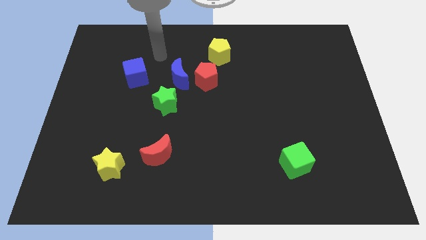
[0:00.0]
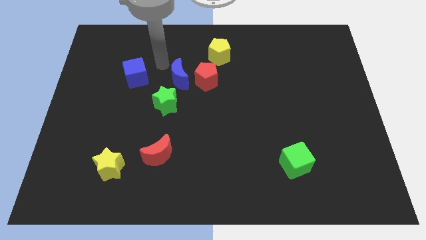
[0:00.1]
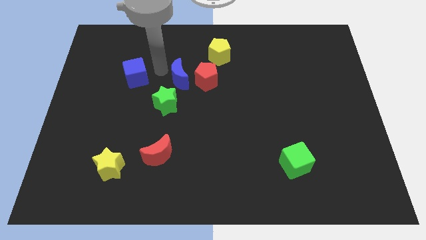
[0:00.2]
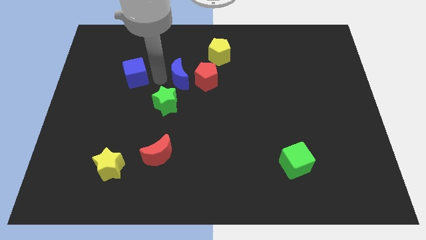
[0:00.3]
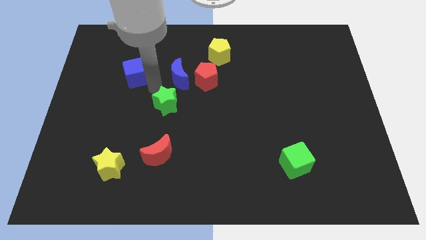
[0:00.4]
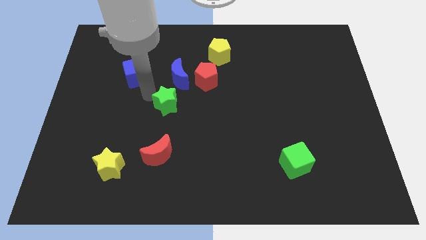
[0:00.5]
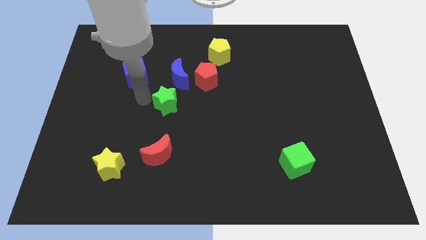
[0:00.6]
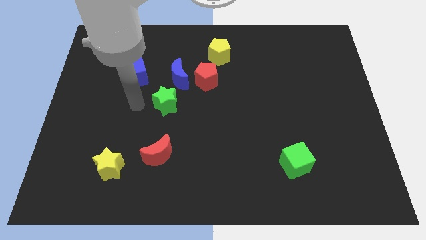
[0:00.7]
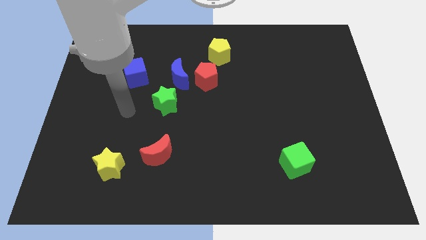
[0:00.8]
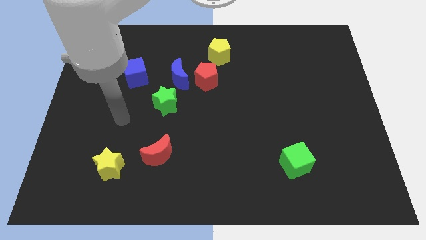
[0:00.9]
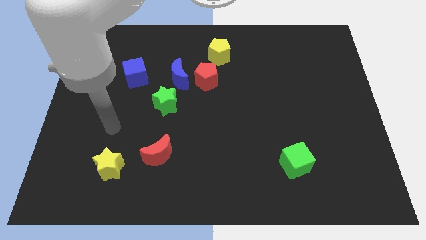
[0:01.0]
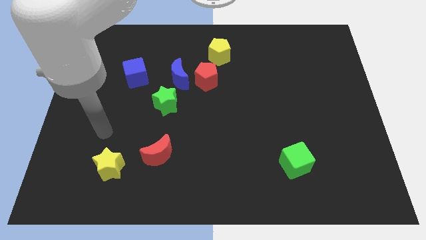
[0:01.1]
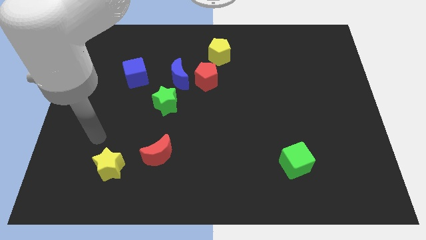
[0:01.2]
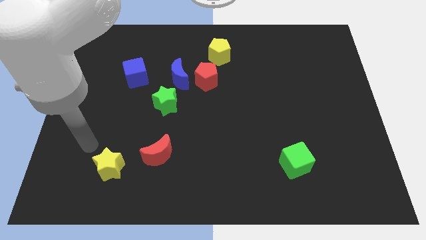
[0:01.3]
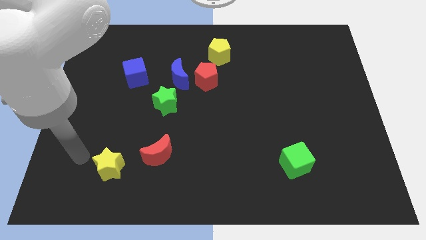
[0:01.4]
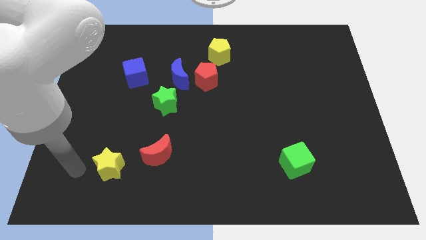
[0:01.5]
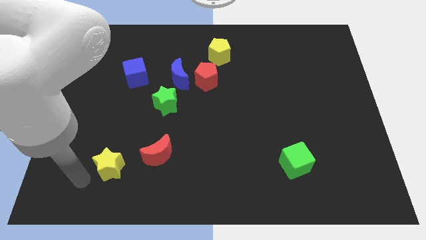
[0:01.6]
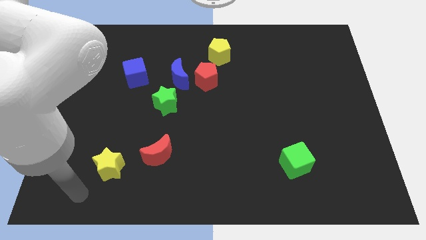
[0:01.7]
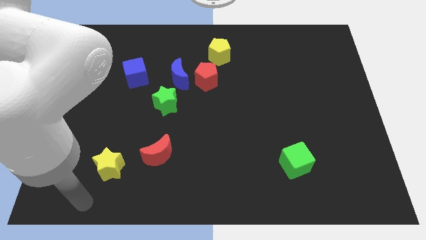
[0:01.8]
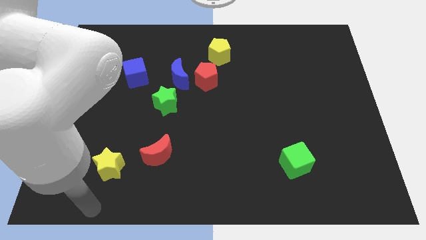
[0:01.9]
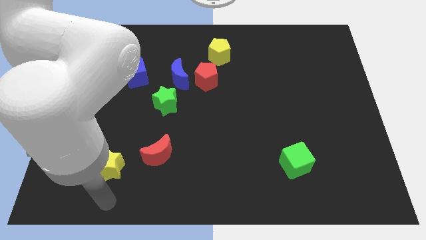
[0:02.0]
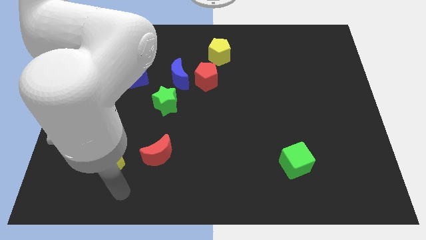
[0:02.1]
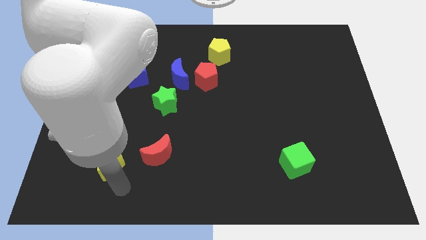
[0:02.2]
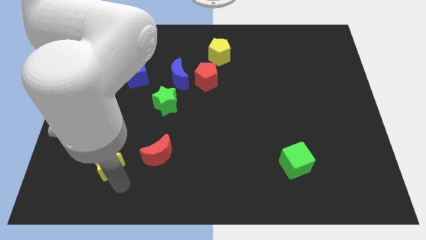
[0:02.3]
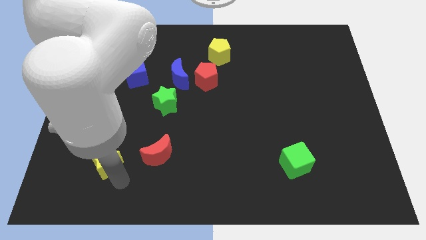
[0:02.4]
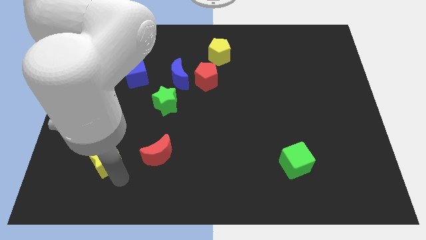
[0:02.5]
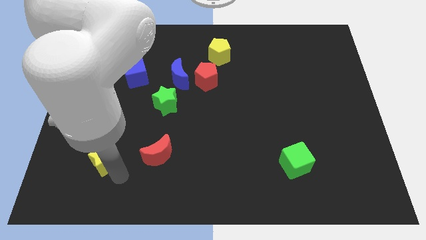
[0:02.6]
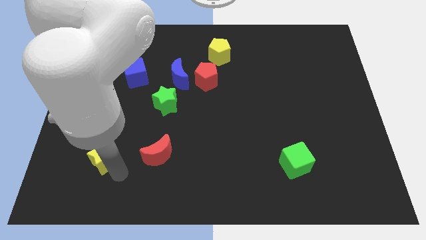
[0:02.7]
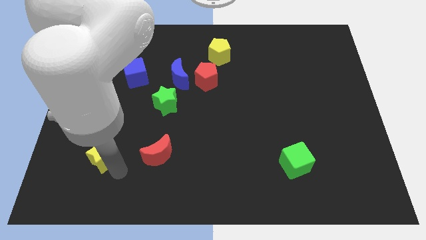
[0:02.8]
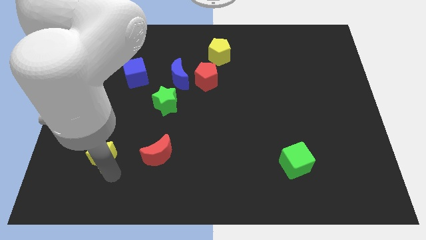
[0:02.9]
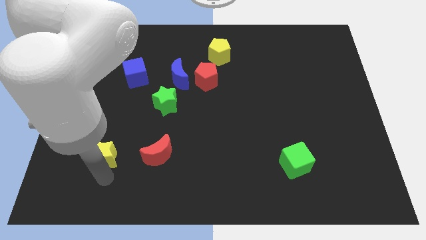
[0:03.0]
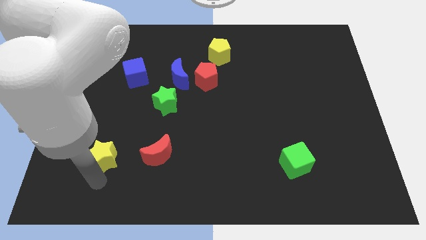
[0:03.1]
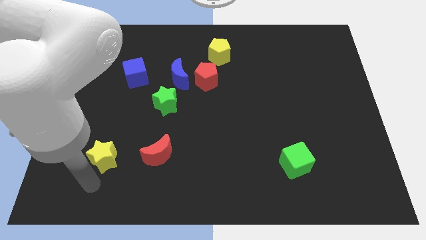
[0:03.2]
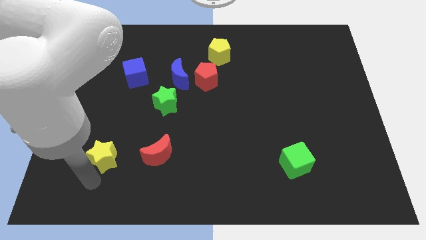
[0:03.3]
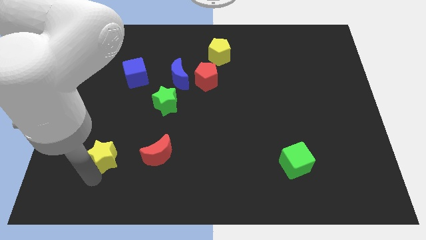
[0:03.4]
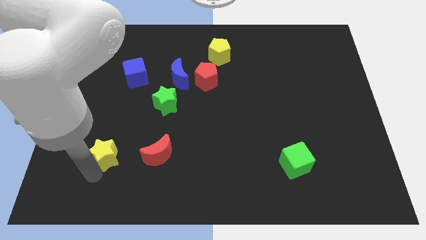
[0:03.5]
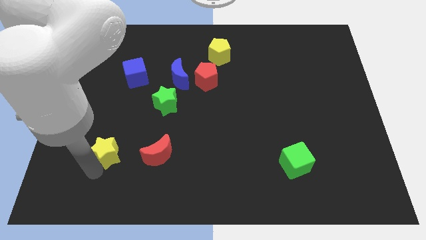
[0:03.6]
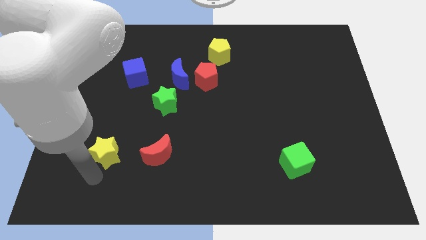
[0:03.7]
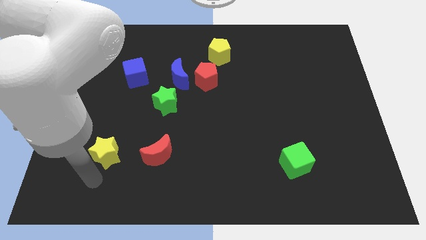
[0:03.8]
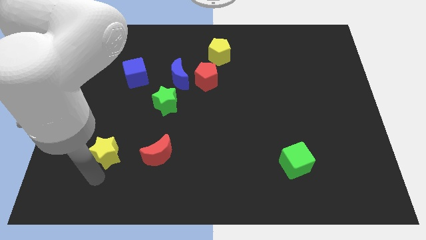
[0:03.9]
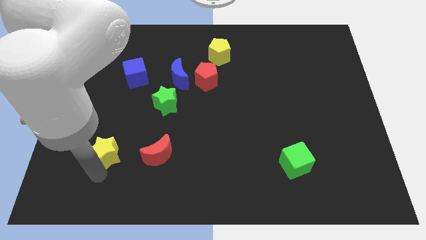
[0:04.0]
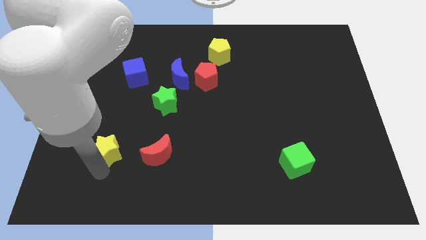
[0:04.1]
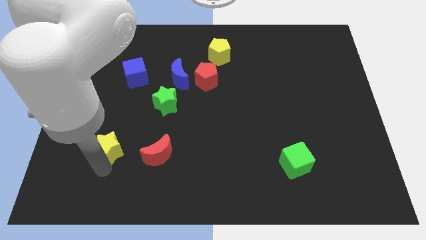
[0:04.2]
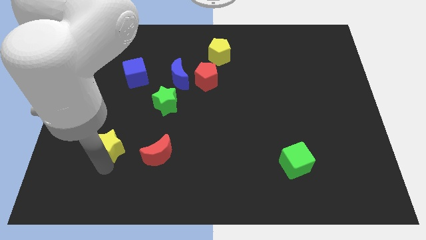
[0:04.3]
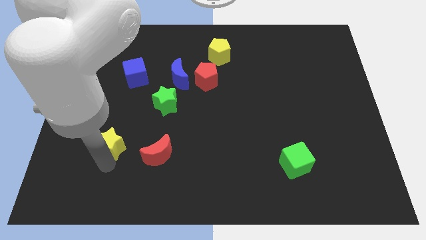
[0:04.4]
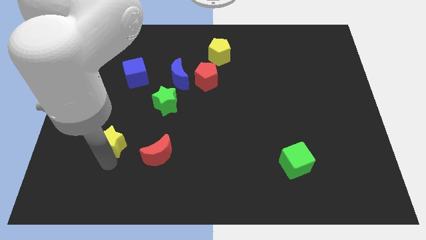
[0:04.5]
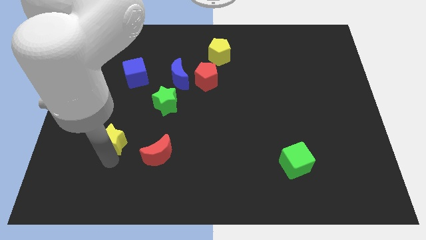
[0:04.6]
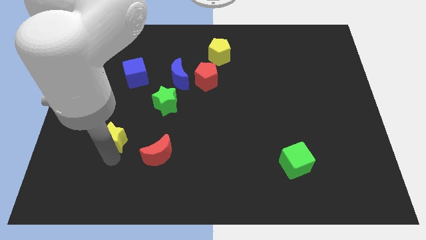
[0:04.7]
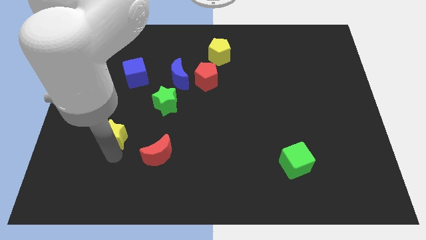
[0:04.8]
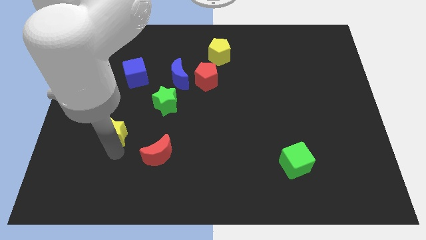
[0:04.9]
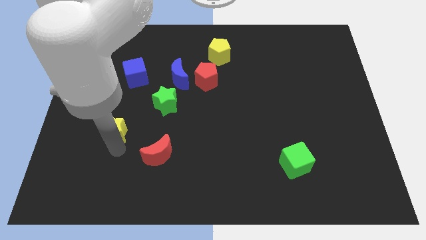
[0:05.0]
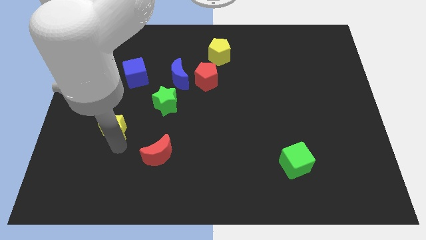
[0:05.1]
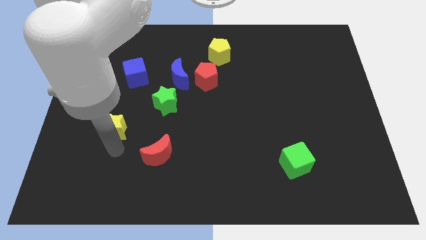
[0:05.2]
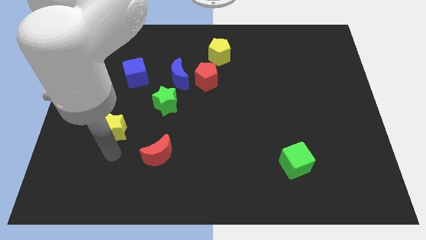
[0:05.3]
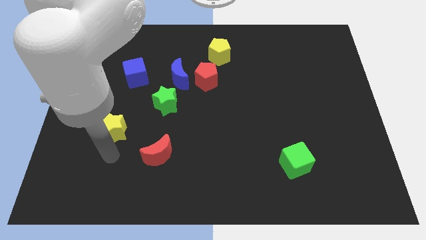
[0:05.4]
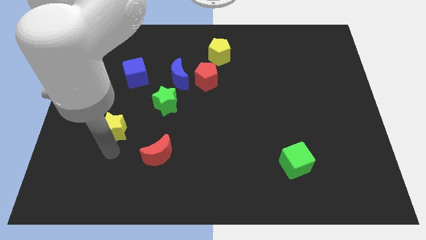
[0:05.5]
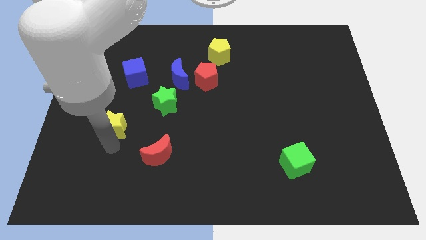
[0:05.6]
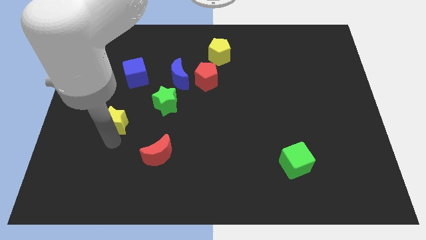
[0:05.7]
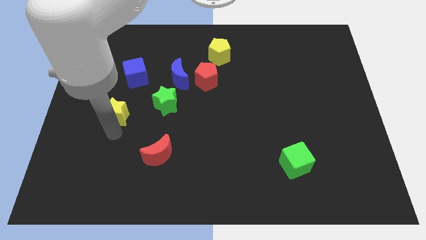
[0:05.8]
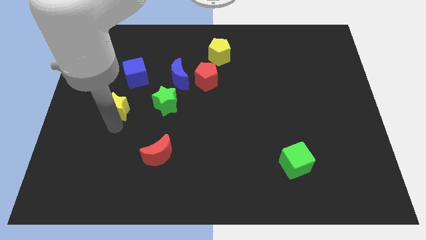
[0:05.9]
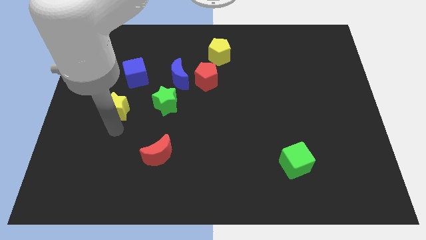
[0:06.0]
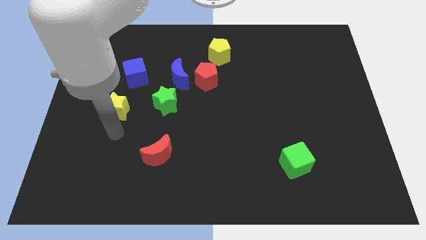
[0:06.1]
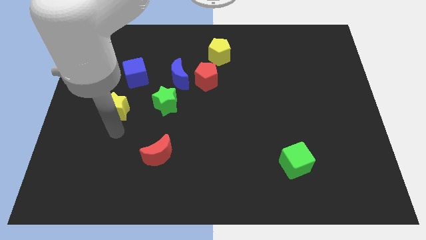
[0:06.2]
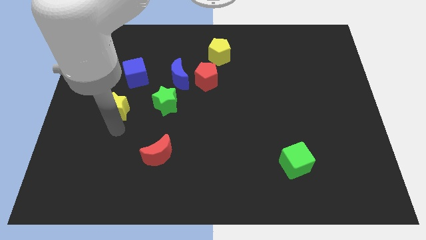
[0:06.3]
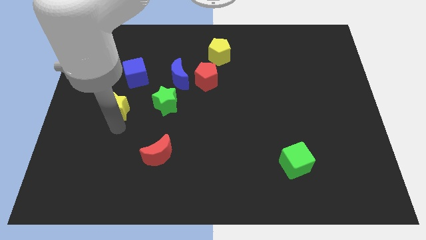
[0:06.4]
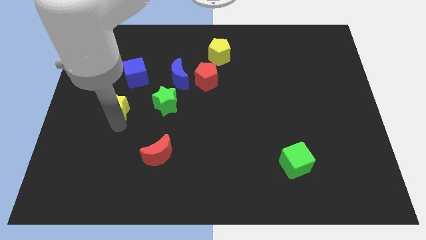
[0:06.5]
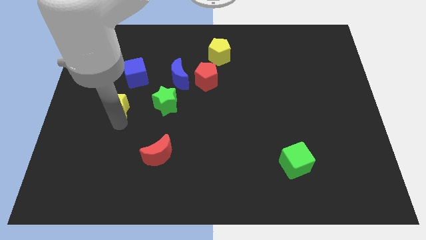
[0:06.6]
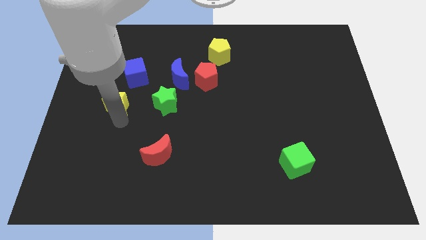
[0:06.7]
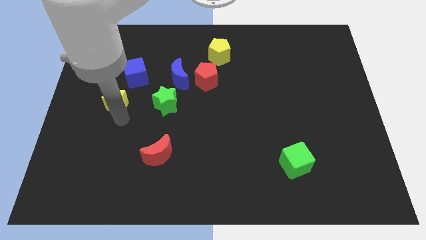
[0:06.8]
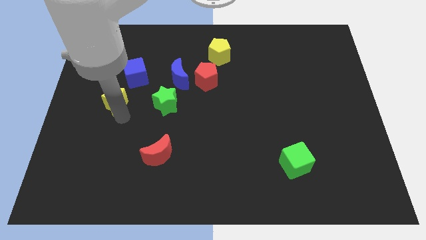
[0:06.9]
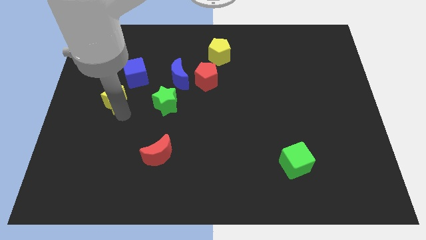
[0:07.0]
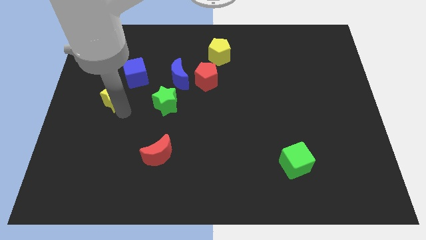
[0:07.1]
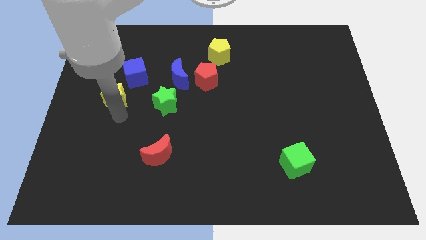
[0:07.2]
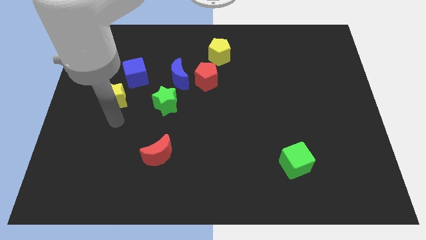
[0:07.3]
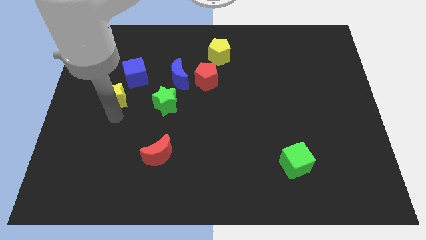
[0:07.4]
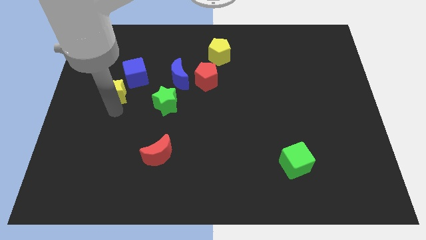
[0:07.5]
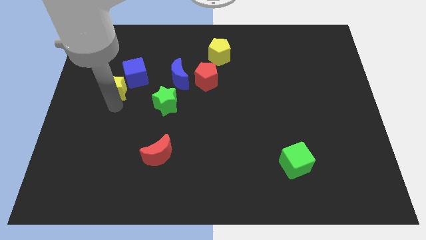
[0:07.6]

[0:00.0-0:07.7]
slide the yellow star up

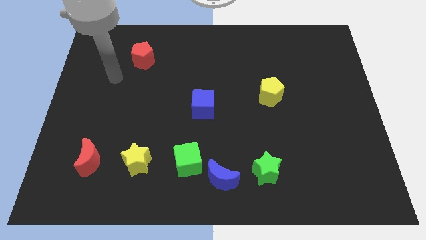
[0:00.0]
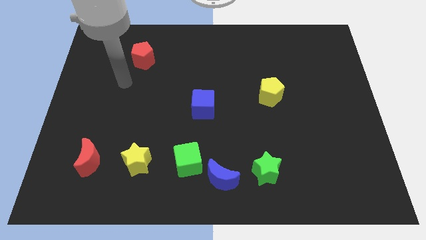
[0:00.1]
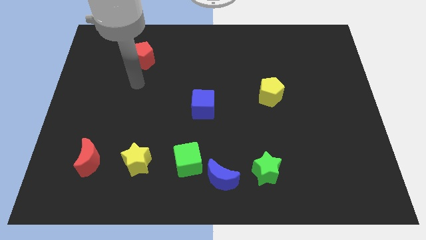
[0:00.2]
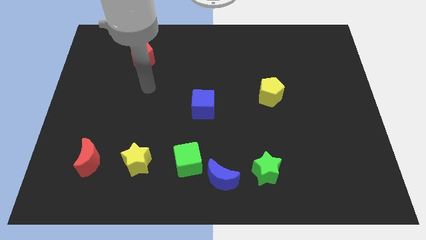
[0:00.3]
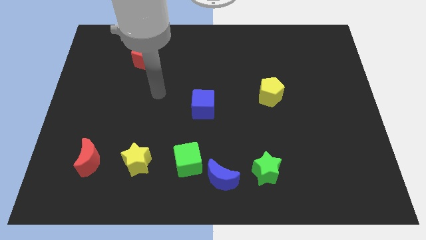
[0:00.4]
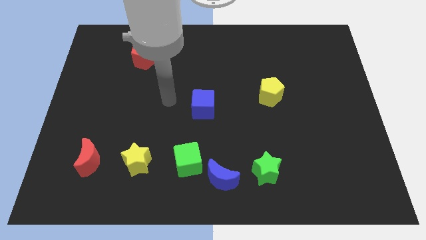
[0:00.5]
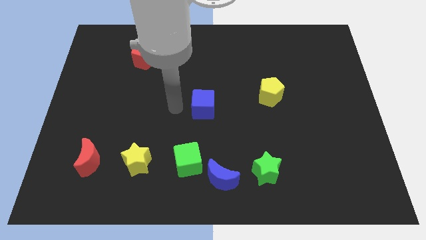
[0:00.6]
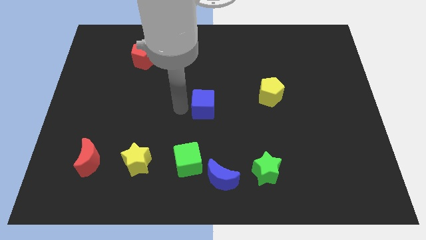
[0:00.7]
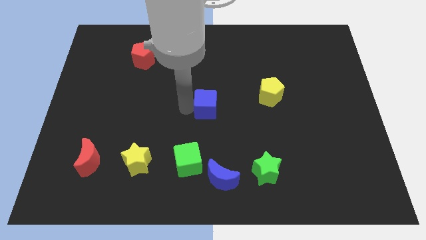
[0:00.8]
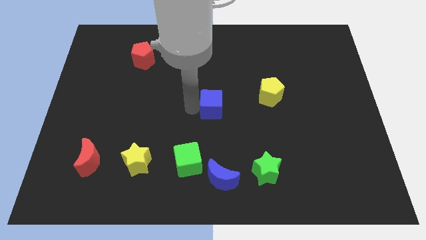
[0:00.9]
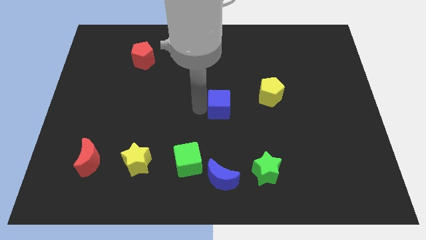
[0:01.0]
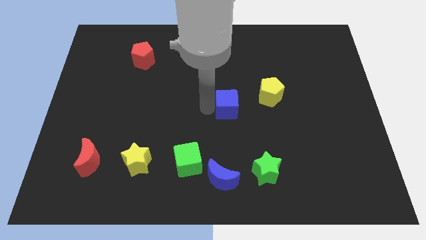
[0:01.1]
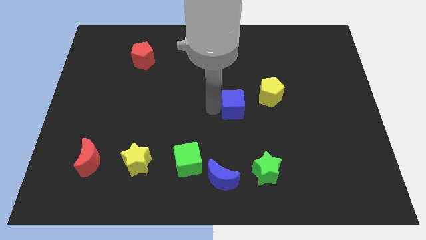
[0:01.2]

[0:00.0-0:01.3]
slide the blue cube slightly to the right
